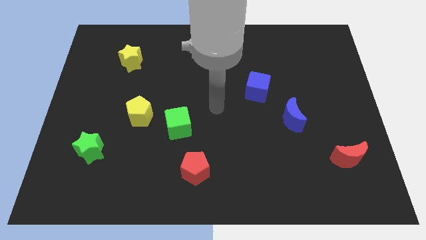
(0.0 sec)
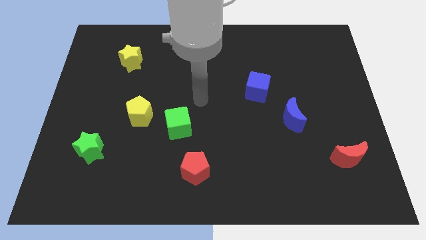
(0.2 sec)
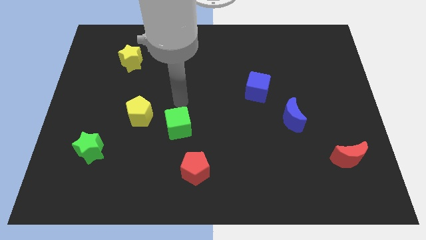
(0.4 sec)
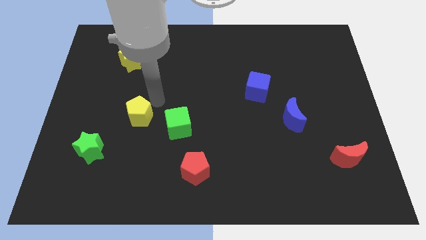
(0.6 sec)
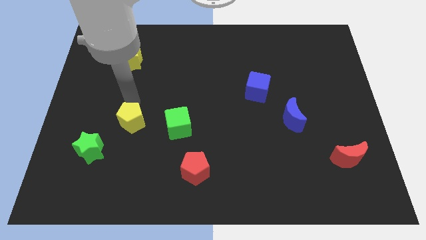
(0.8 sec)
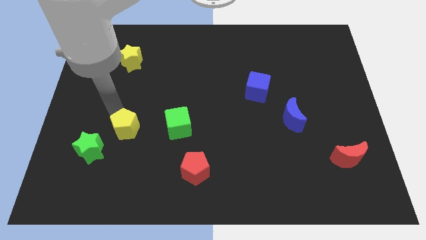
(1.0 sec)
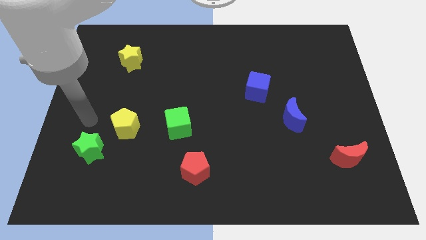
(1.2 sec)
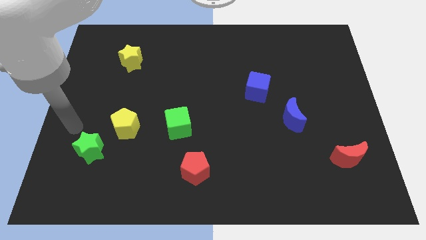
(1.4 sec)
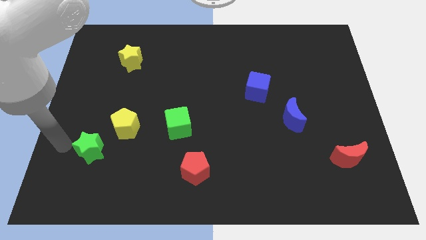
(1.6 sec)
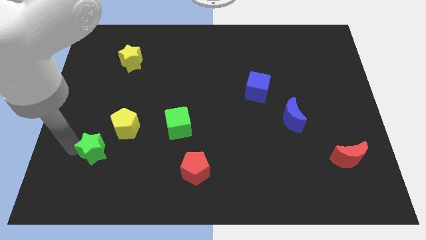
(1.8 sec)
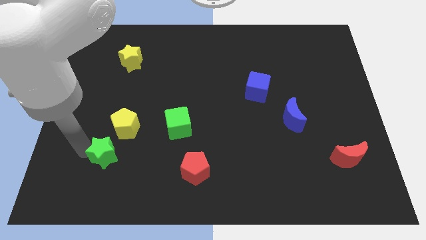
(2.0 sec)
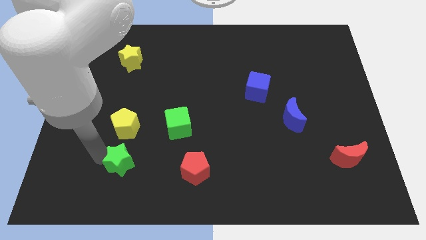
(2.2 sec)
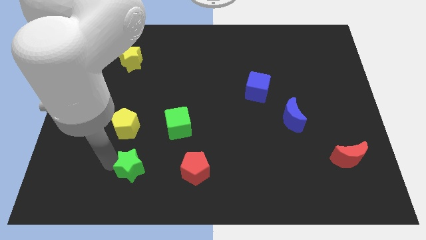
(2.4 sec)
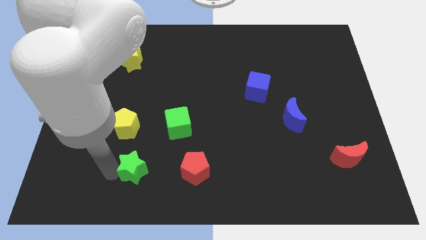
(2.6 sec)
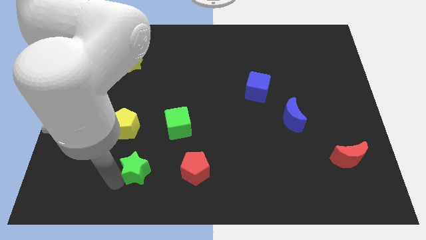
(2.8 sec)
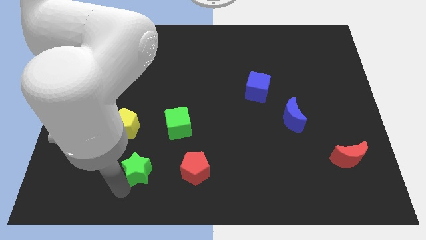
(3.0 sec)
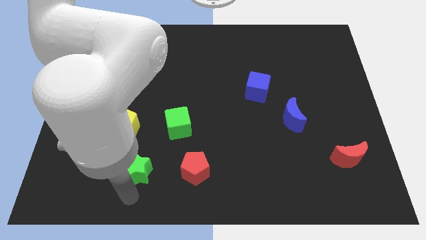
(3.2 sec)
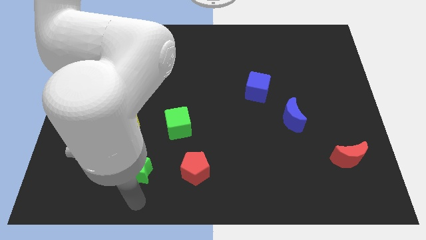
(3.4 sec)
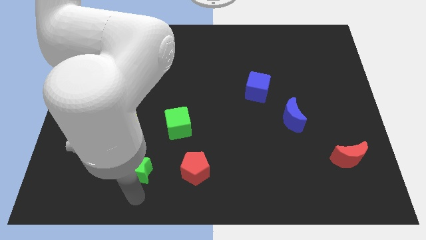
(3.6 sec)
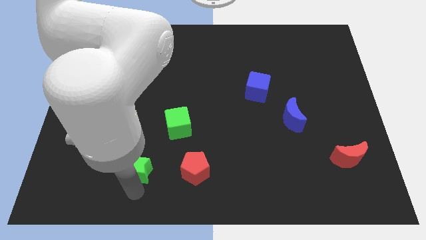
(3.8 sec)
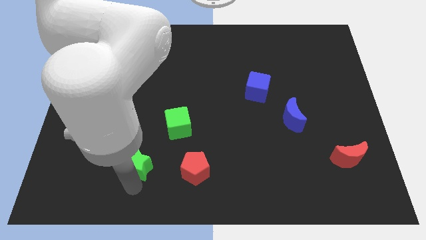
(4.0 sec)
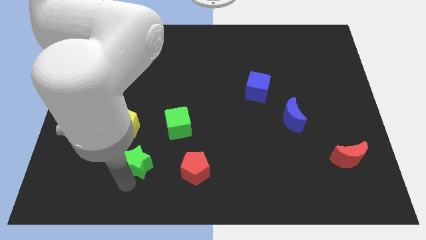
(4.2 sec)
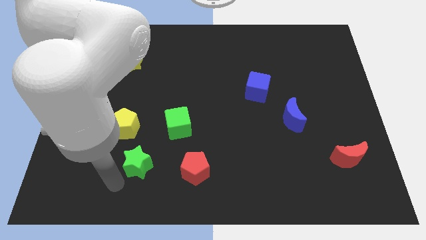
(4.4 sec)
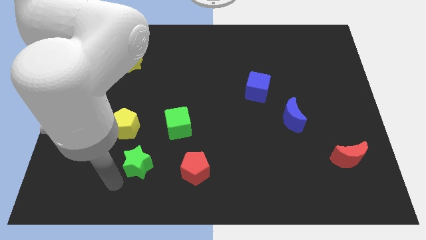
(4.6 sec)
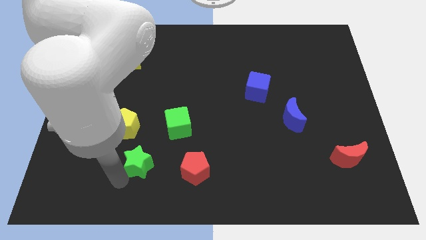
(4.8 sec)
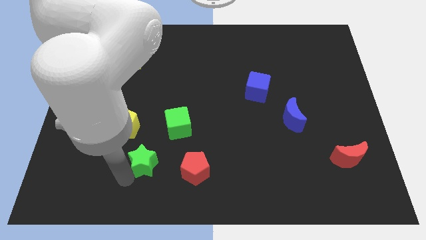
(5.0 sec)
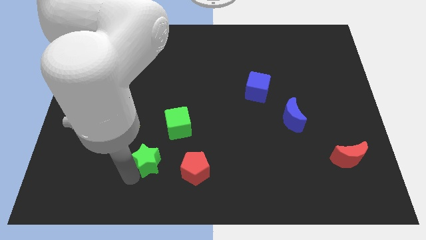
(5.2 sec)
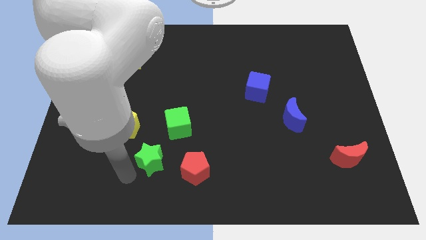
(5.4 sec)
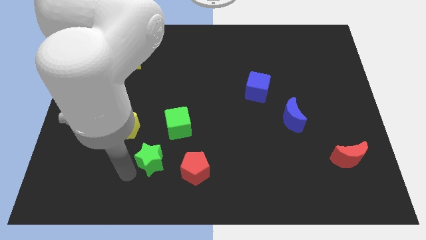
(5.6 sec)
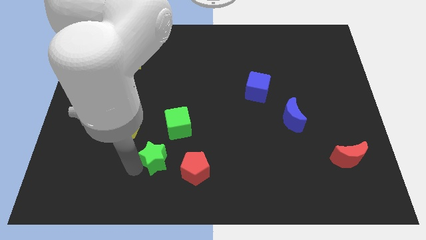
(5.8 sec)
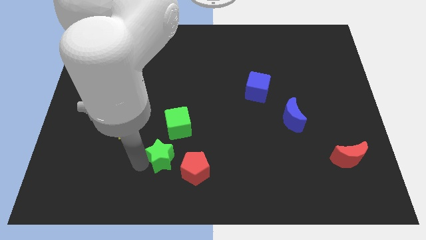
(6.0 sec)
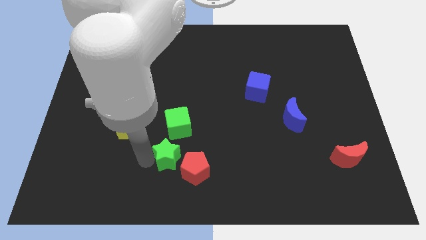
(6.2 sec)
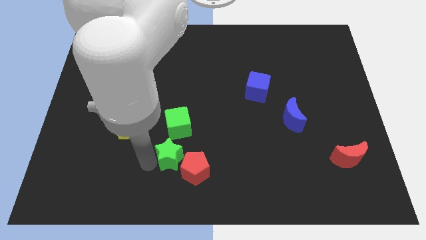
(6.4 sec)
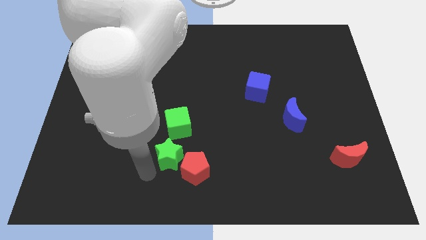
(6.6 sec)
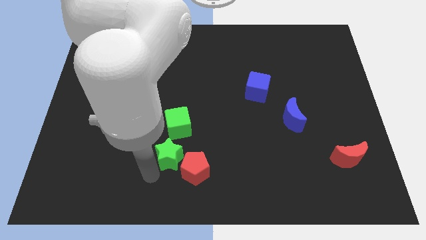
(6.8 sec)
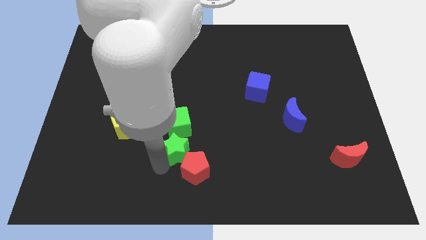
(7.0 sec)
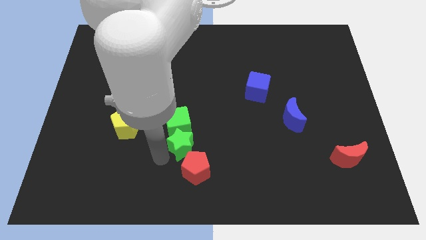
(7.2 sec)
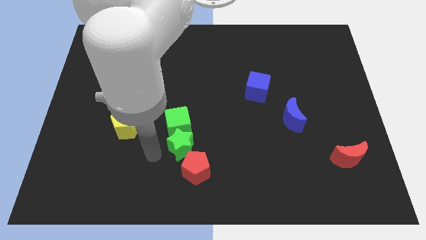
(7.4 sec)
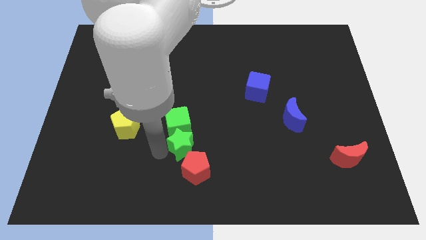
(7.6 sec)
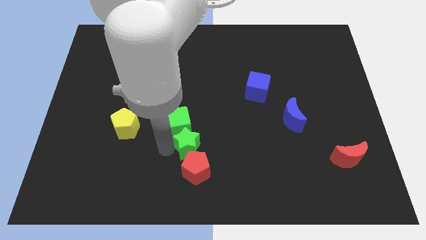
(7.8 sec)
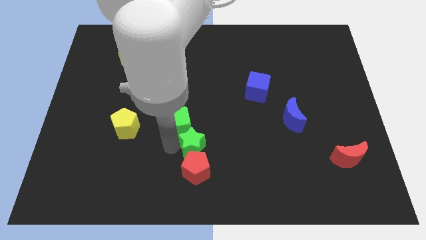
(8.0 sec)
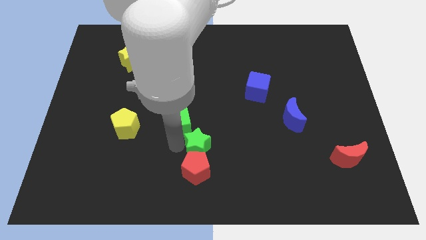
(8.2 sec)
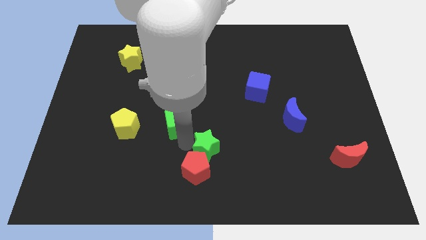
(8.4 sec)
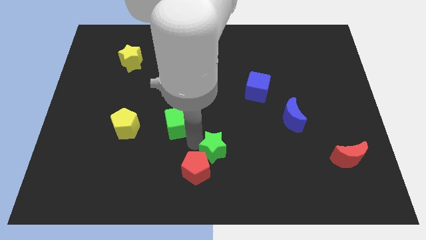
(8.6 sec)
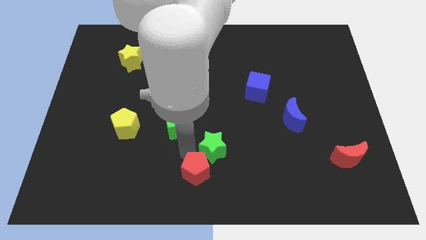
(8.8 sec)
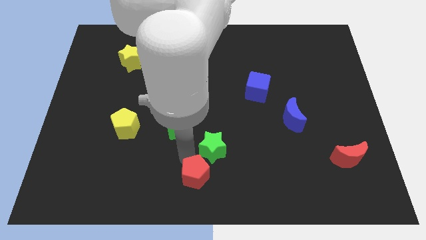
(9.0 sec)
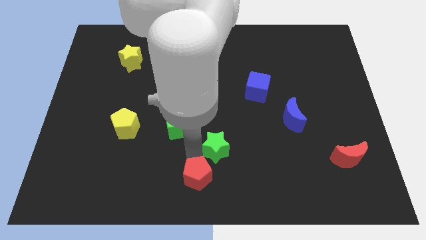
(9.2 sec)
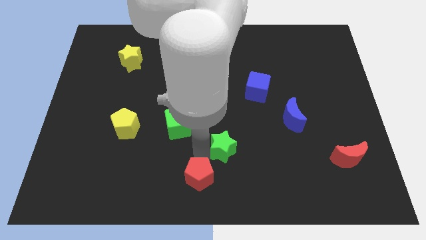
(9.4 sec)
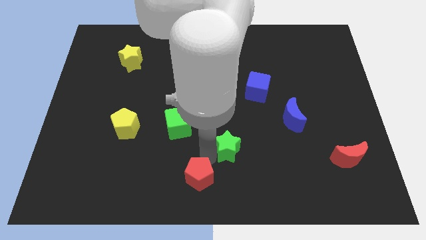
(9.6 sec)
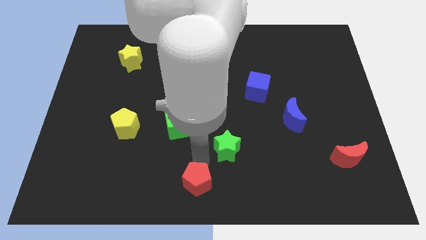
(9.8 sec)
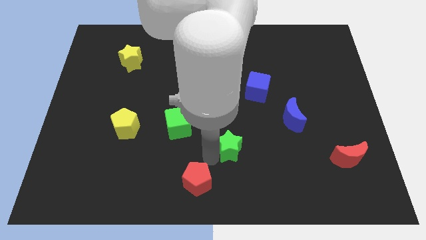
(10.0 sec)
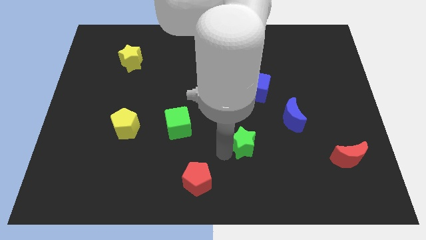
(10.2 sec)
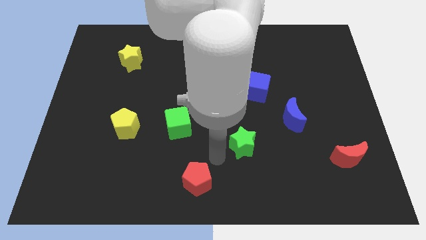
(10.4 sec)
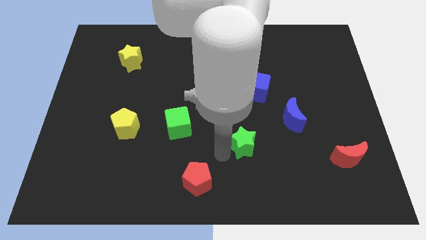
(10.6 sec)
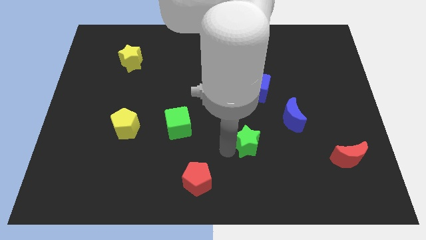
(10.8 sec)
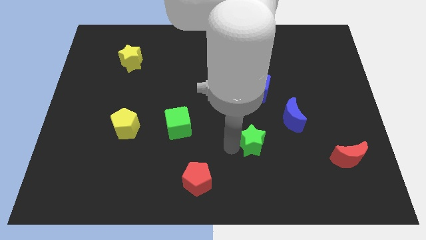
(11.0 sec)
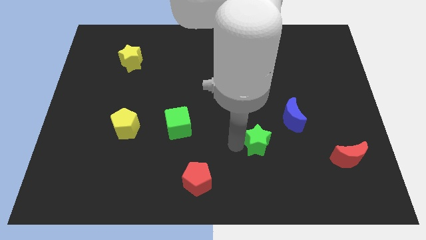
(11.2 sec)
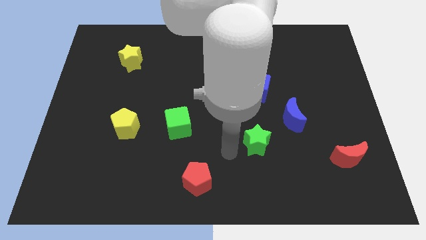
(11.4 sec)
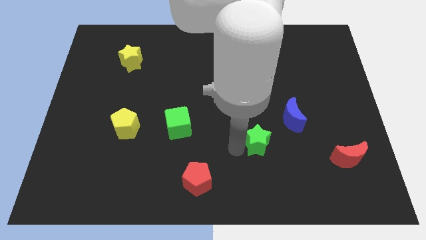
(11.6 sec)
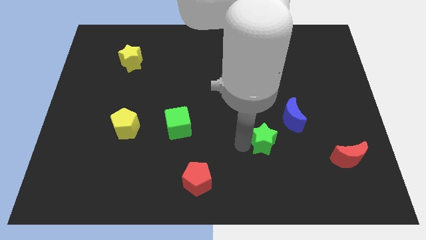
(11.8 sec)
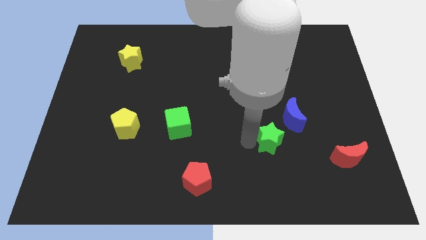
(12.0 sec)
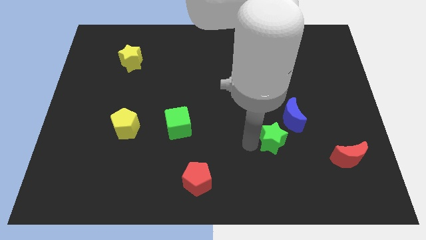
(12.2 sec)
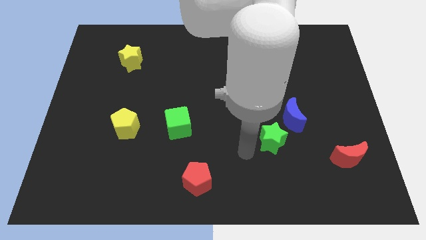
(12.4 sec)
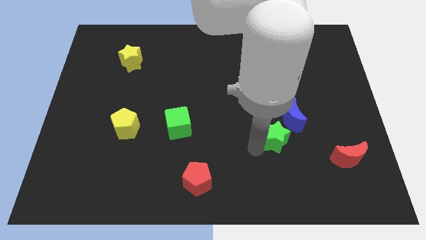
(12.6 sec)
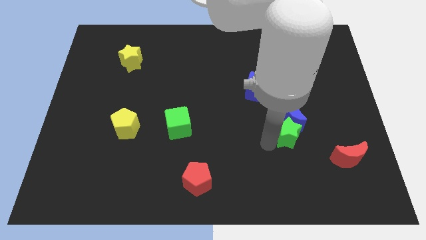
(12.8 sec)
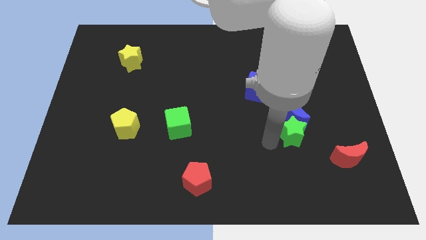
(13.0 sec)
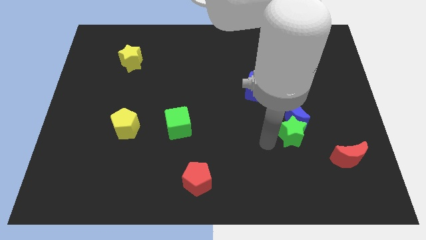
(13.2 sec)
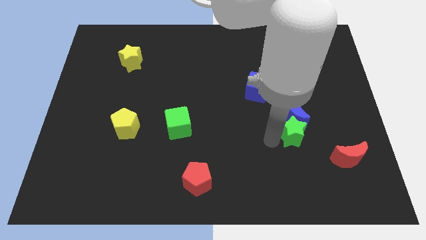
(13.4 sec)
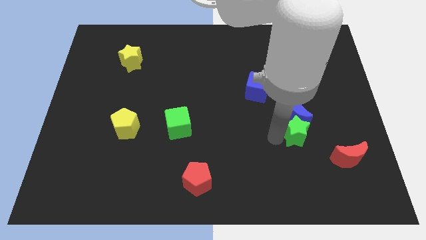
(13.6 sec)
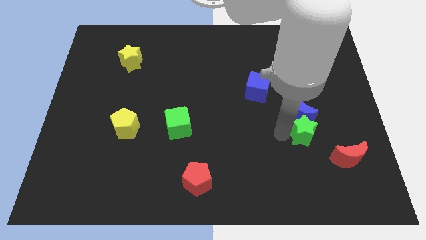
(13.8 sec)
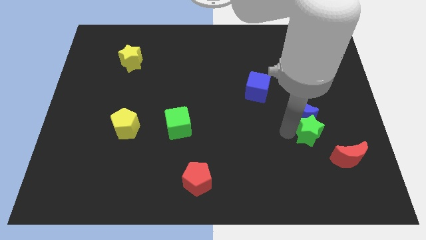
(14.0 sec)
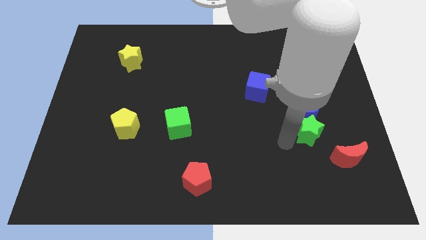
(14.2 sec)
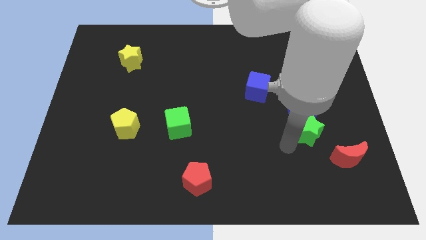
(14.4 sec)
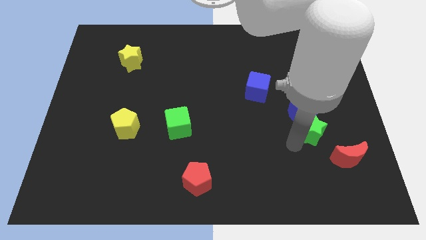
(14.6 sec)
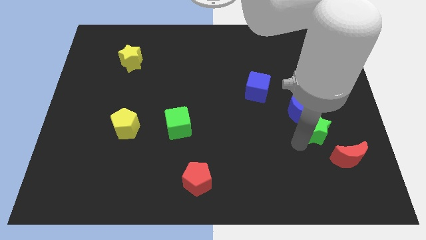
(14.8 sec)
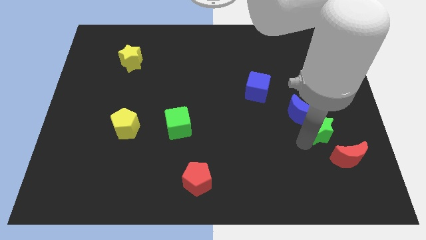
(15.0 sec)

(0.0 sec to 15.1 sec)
move the green star to the top side of the red moon
